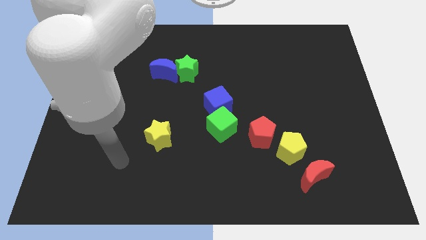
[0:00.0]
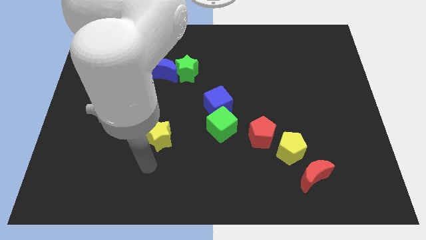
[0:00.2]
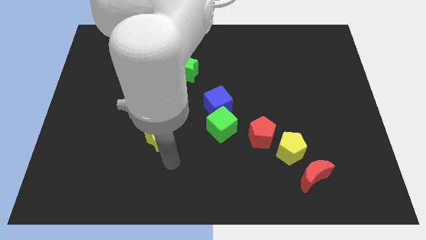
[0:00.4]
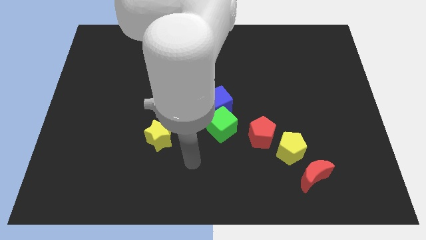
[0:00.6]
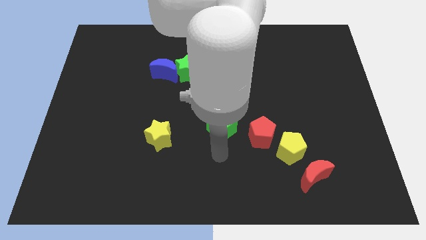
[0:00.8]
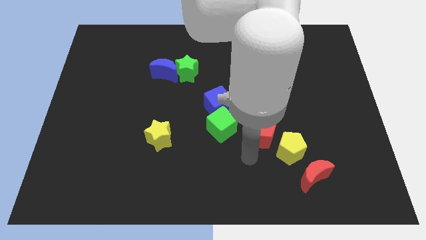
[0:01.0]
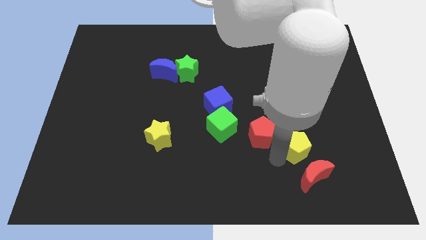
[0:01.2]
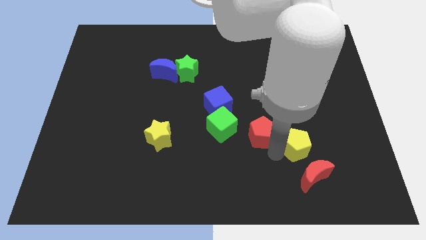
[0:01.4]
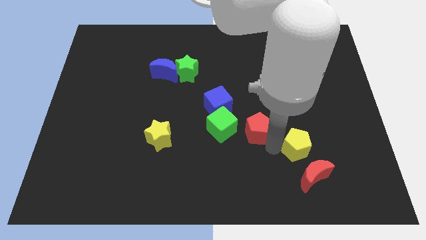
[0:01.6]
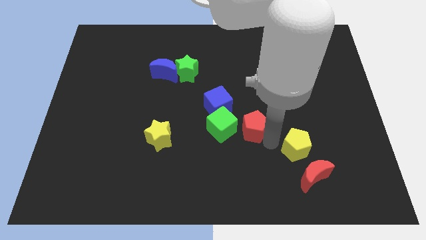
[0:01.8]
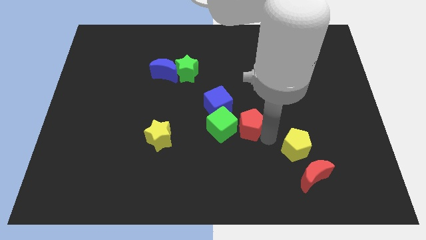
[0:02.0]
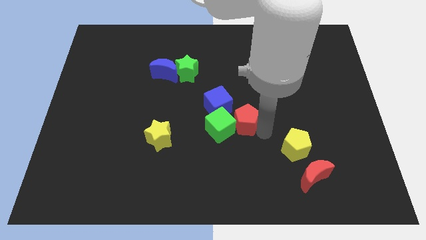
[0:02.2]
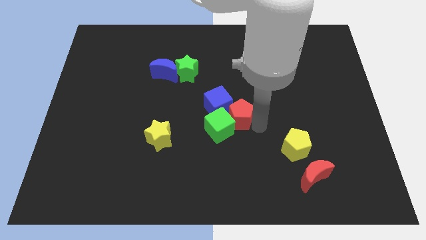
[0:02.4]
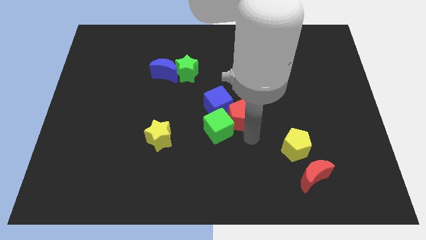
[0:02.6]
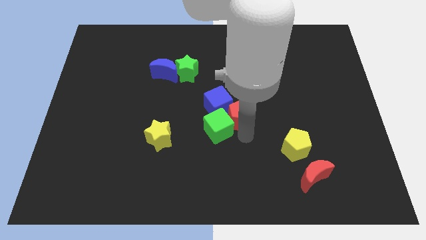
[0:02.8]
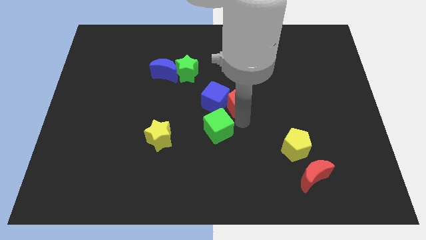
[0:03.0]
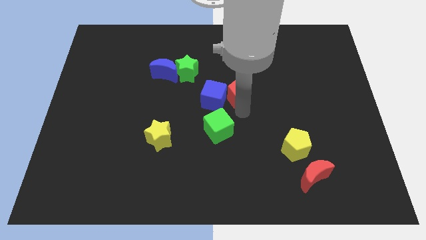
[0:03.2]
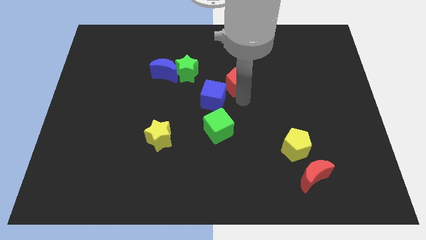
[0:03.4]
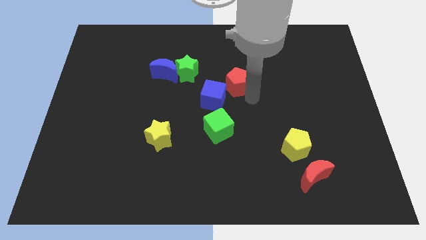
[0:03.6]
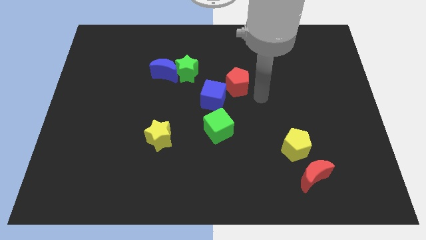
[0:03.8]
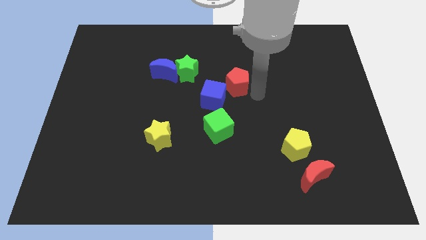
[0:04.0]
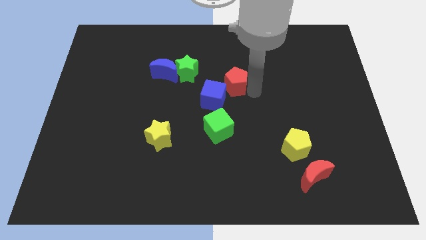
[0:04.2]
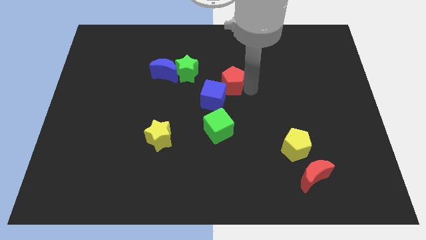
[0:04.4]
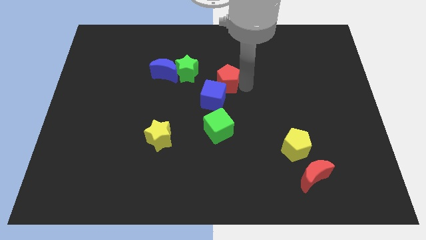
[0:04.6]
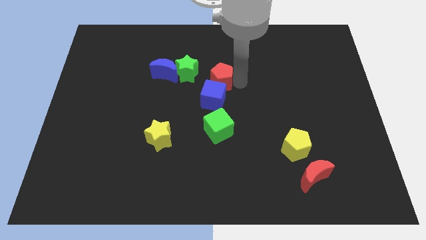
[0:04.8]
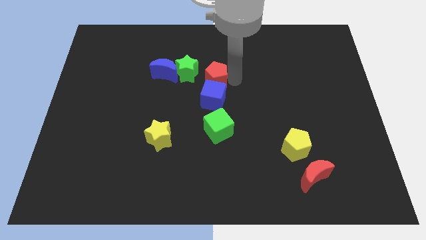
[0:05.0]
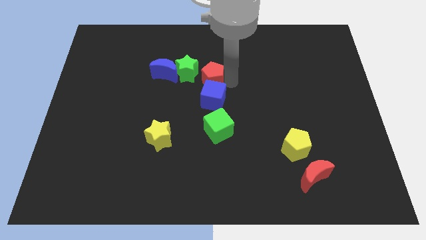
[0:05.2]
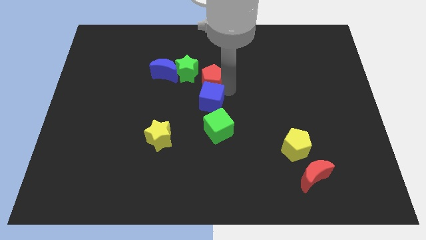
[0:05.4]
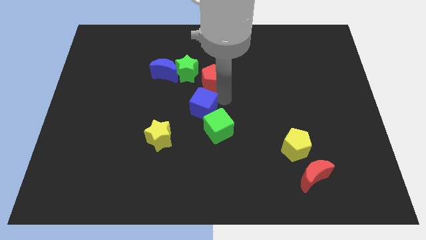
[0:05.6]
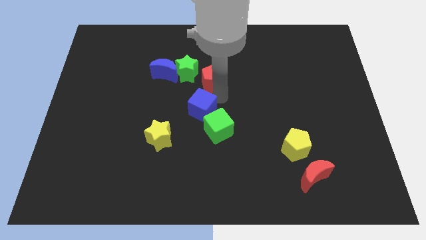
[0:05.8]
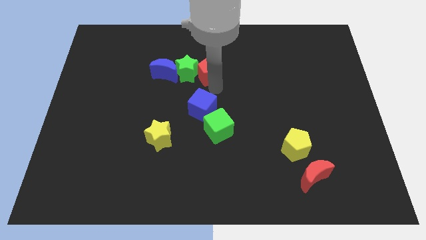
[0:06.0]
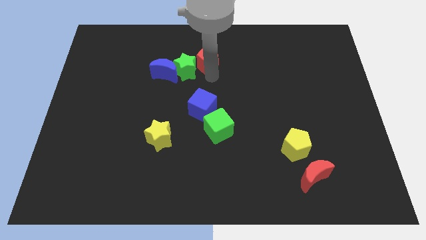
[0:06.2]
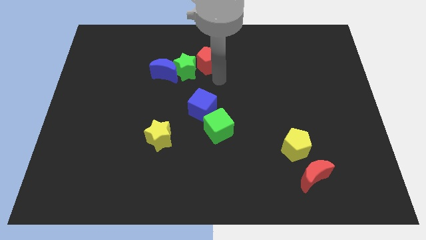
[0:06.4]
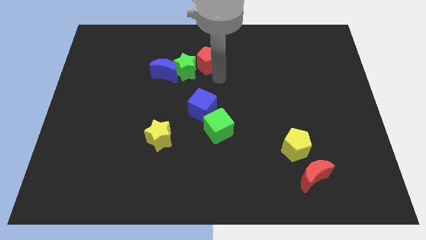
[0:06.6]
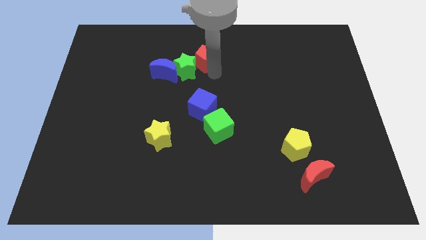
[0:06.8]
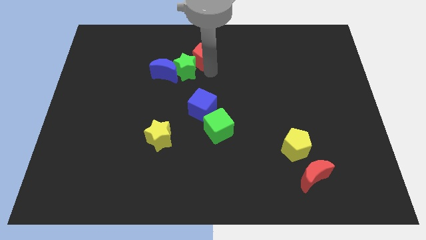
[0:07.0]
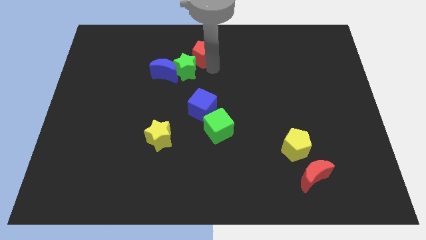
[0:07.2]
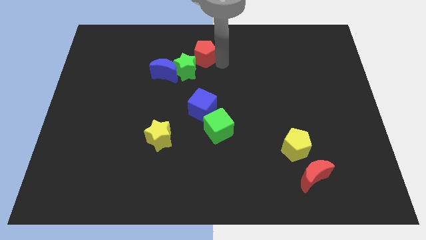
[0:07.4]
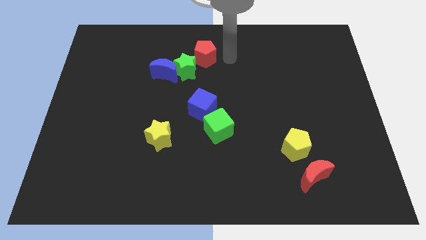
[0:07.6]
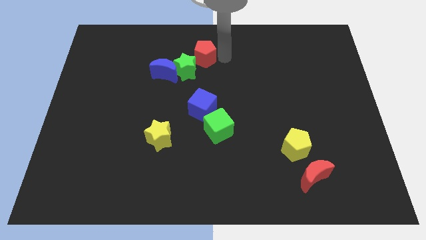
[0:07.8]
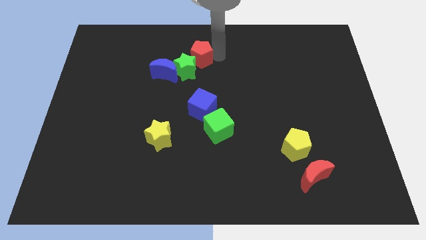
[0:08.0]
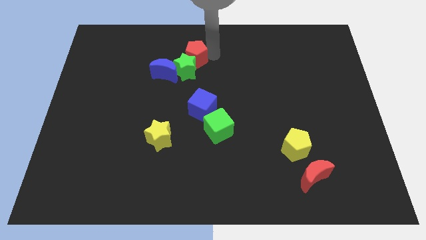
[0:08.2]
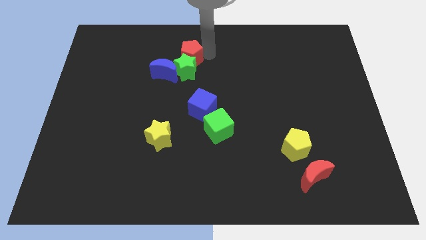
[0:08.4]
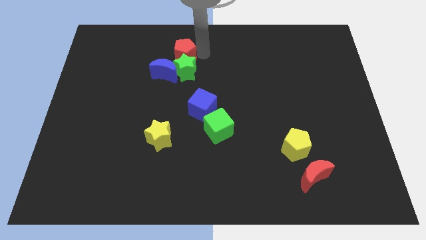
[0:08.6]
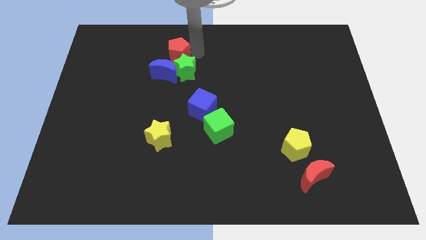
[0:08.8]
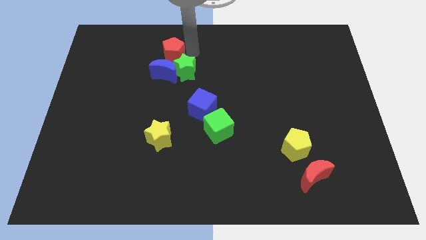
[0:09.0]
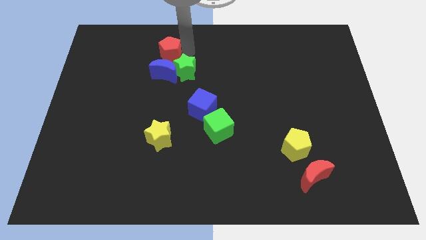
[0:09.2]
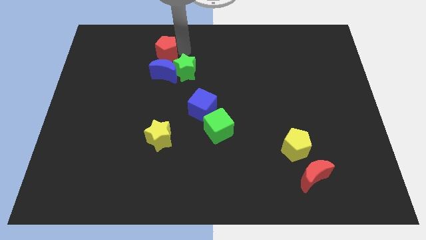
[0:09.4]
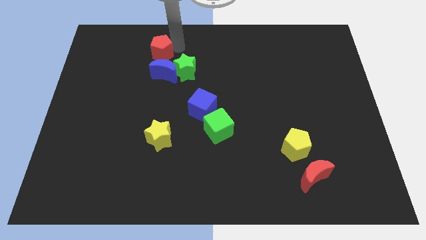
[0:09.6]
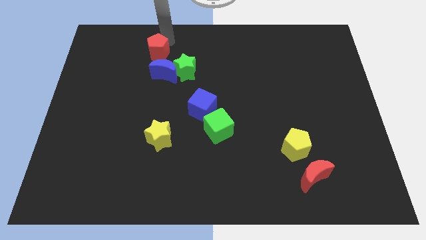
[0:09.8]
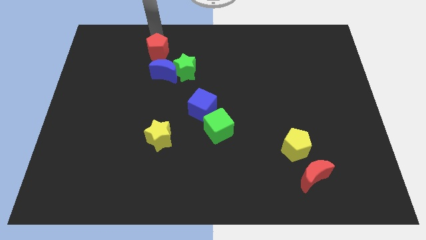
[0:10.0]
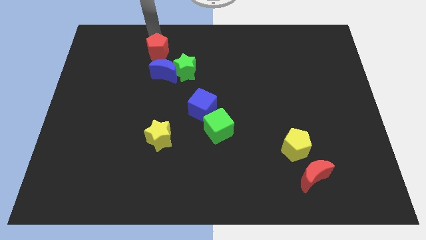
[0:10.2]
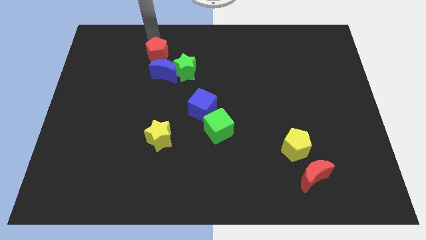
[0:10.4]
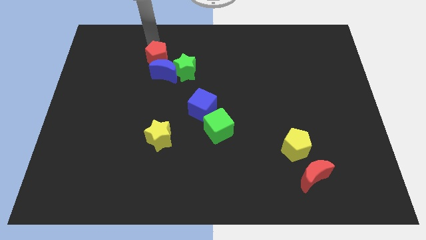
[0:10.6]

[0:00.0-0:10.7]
push the red pentagon to the blue moon

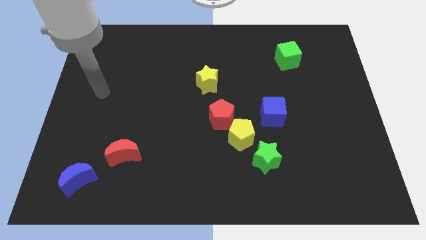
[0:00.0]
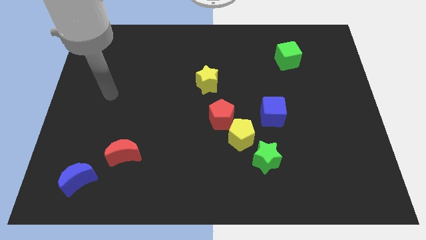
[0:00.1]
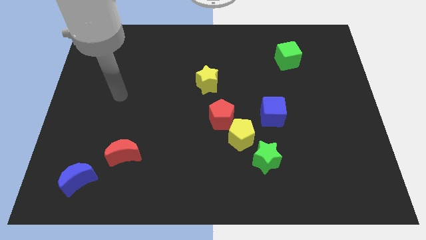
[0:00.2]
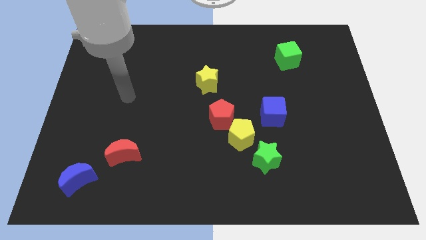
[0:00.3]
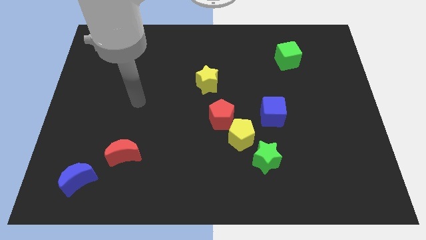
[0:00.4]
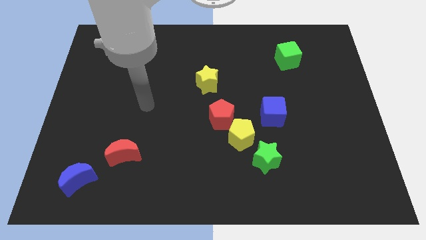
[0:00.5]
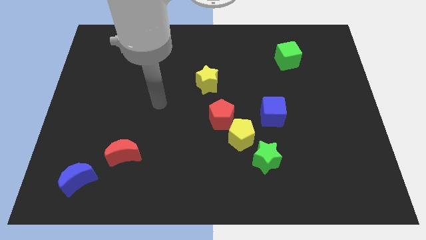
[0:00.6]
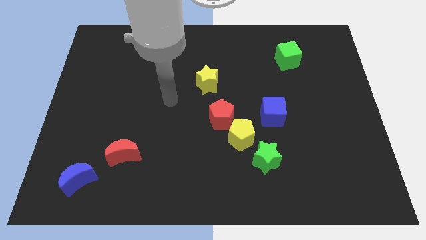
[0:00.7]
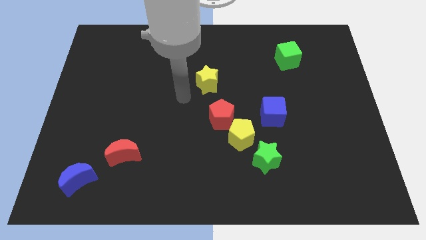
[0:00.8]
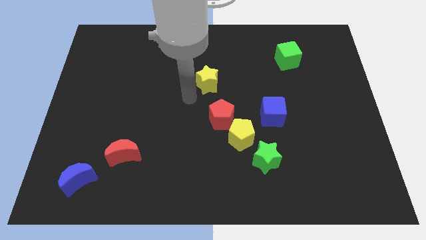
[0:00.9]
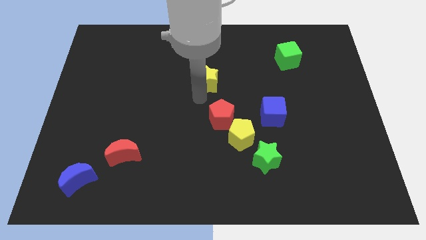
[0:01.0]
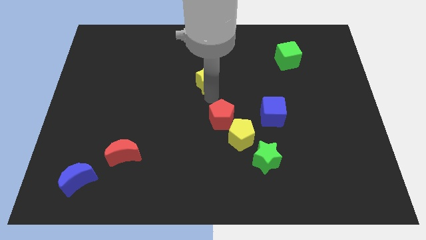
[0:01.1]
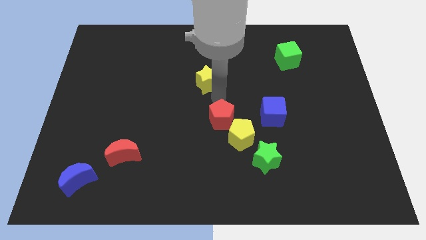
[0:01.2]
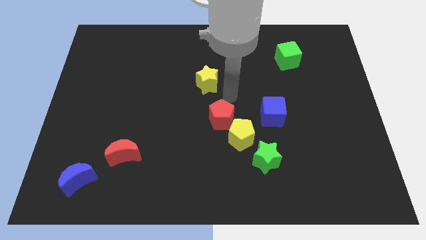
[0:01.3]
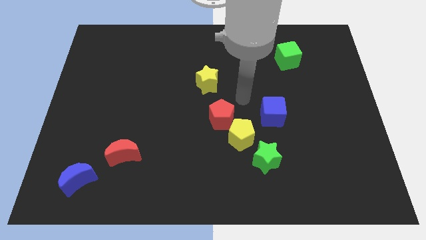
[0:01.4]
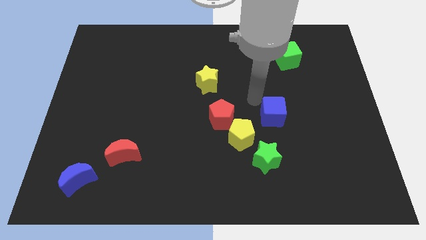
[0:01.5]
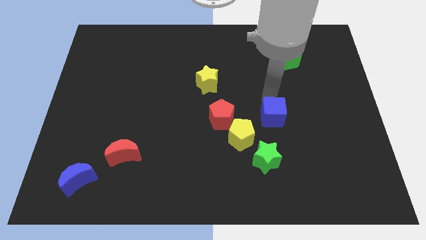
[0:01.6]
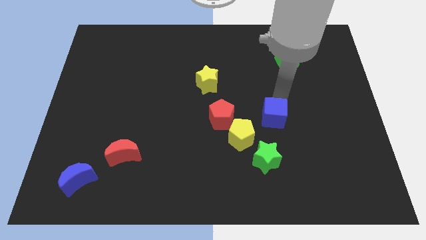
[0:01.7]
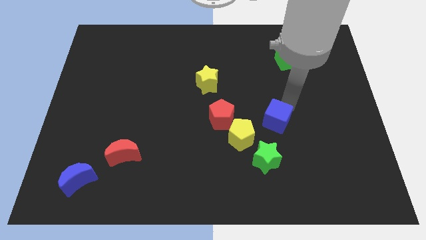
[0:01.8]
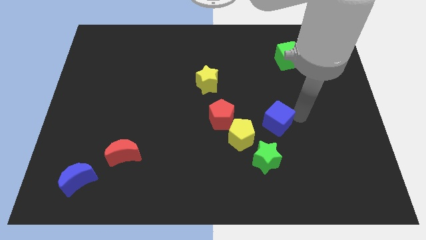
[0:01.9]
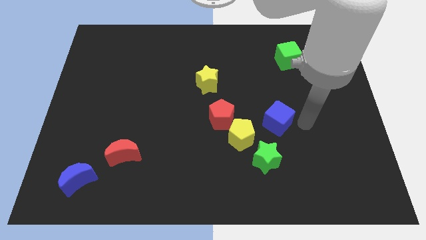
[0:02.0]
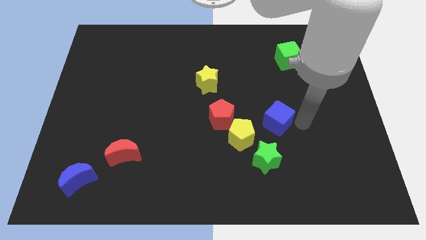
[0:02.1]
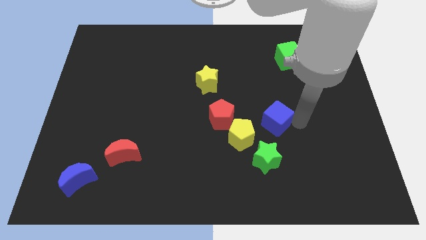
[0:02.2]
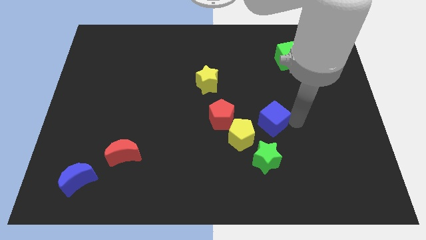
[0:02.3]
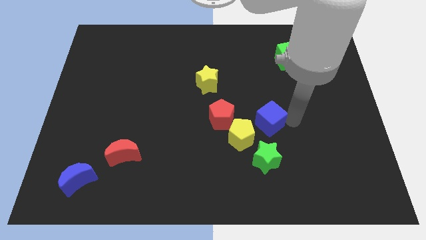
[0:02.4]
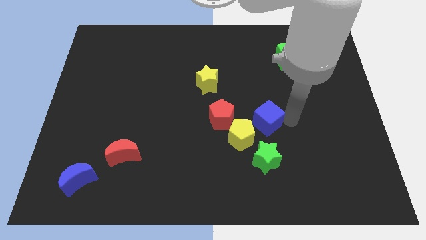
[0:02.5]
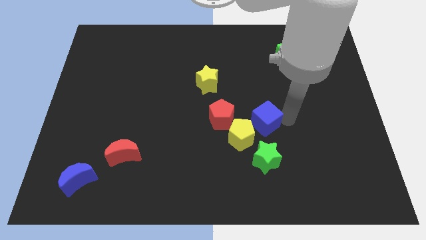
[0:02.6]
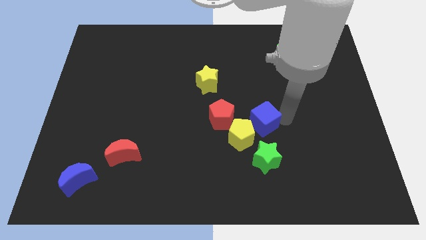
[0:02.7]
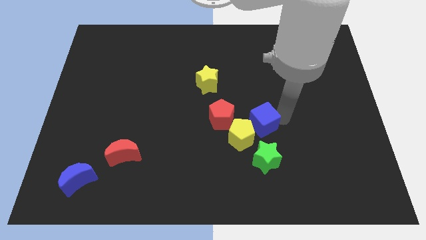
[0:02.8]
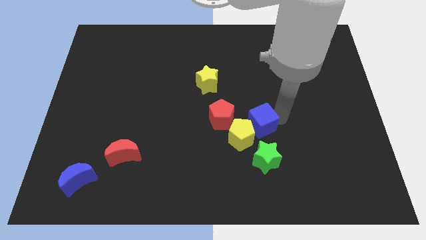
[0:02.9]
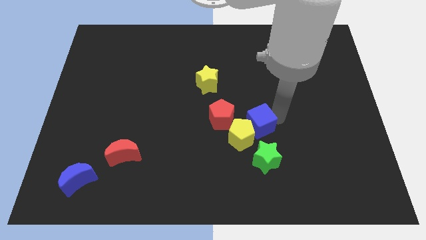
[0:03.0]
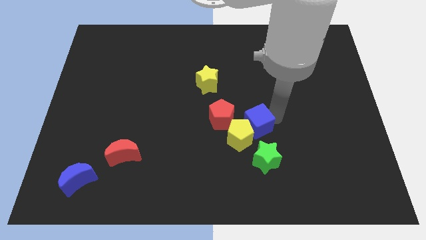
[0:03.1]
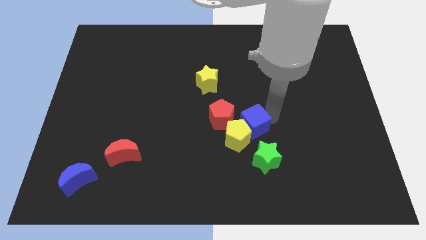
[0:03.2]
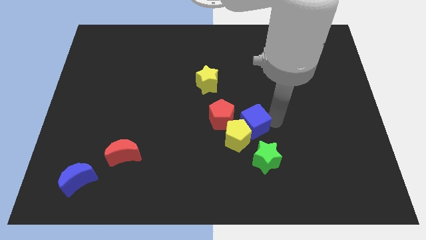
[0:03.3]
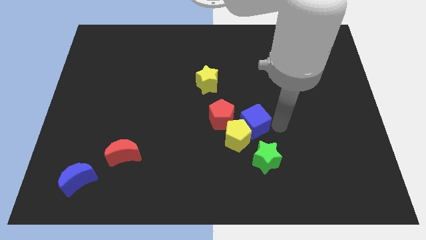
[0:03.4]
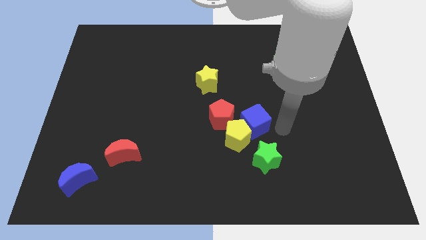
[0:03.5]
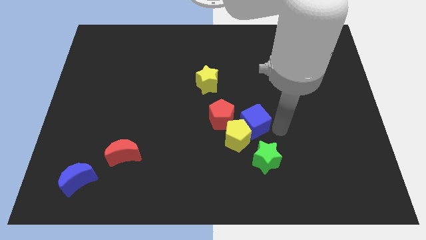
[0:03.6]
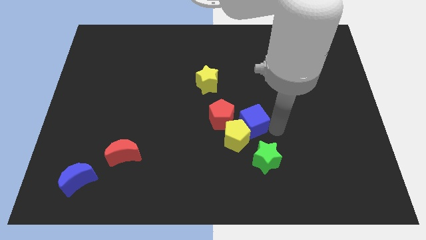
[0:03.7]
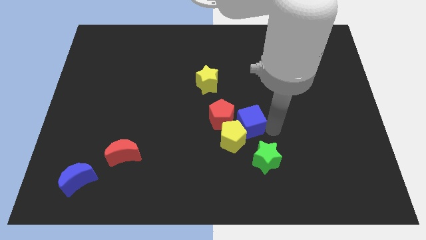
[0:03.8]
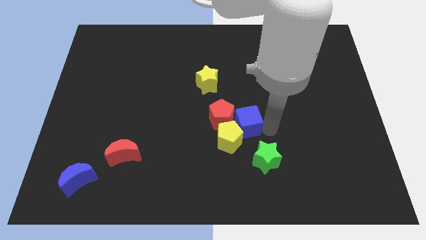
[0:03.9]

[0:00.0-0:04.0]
put the blue cube towards the red pentagon
